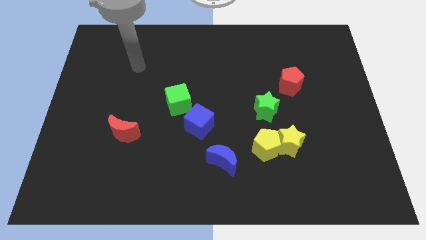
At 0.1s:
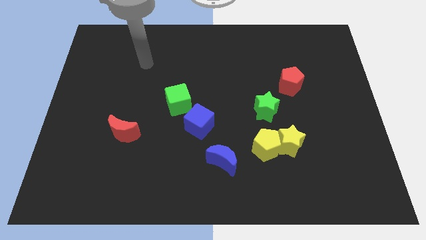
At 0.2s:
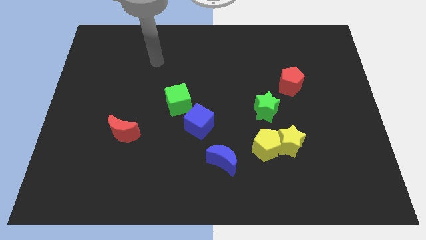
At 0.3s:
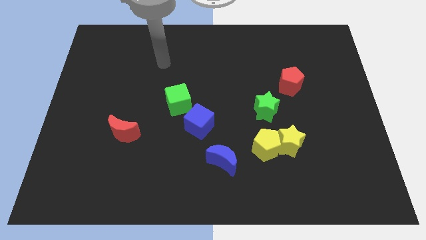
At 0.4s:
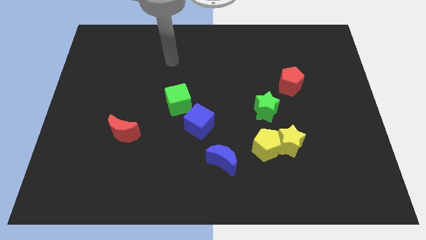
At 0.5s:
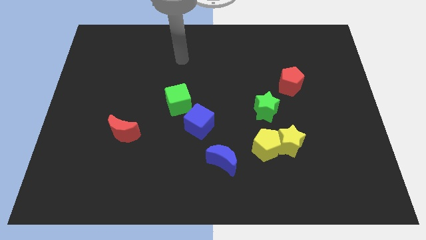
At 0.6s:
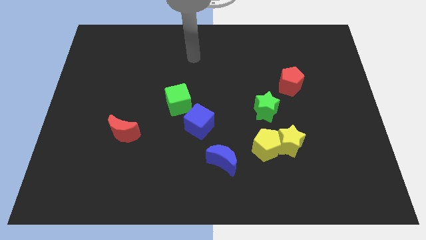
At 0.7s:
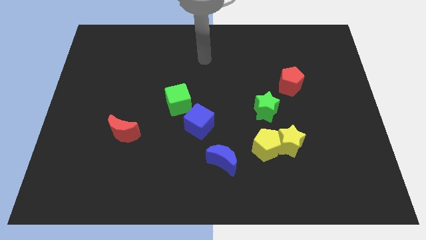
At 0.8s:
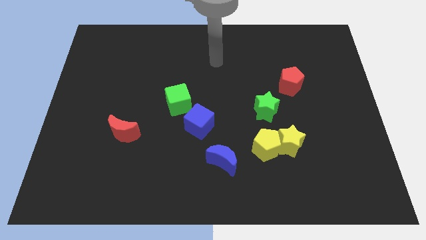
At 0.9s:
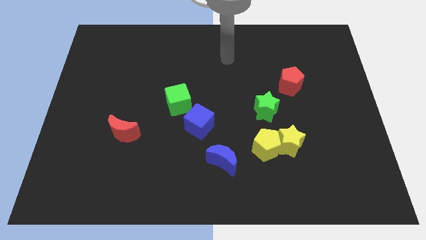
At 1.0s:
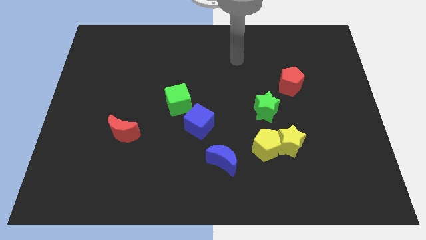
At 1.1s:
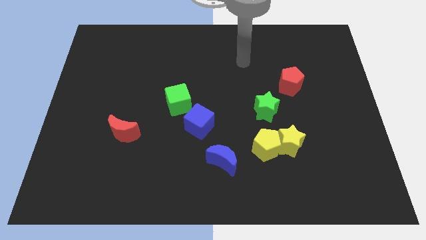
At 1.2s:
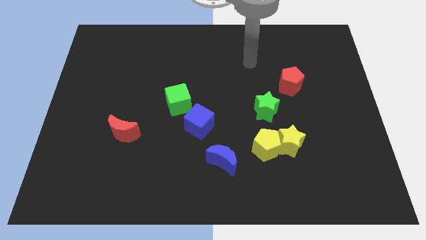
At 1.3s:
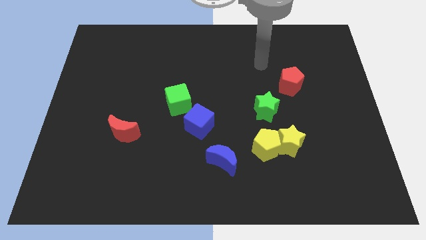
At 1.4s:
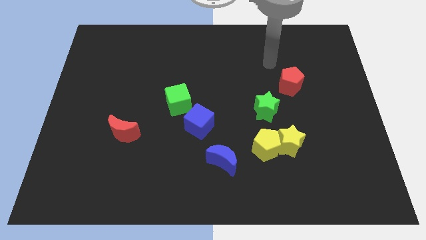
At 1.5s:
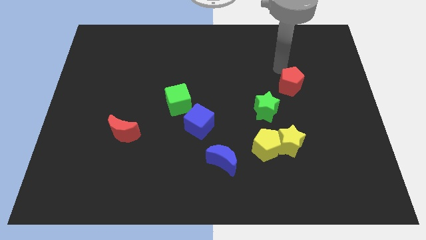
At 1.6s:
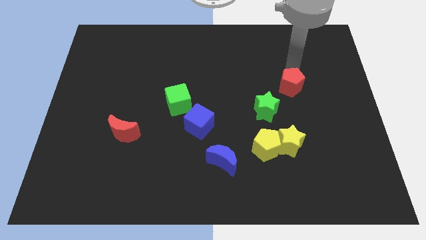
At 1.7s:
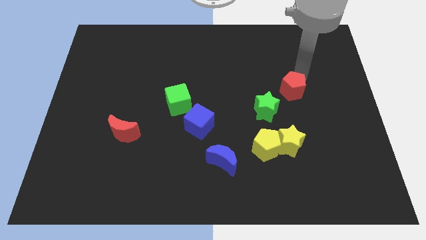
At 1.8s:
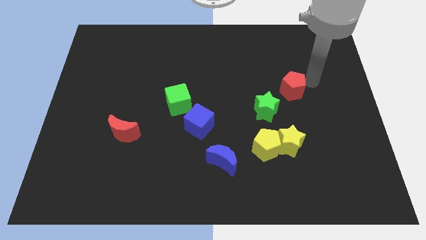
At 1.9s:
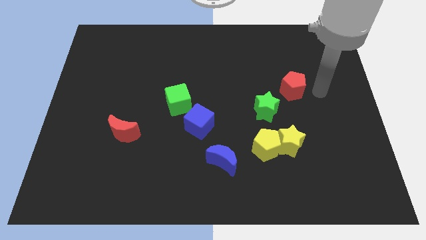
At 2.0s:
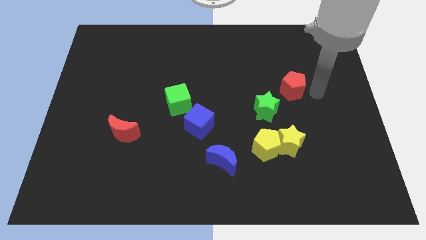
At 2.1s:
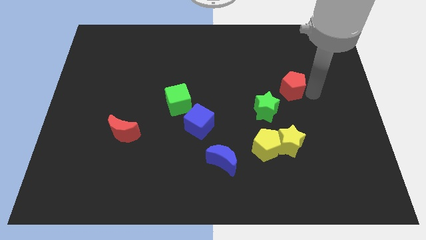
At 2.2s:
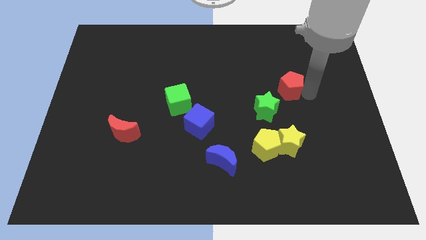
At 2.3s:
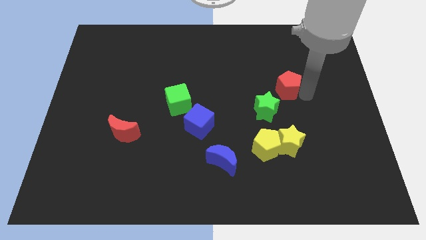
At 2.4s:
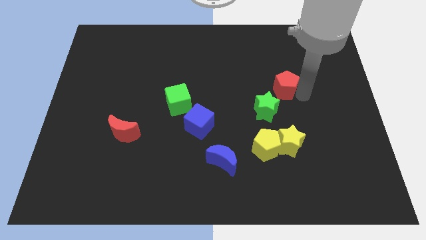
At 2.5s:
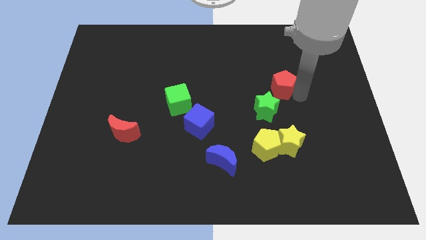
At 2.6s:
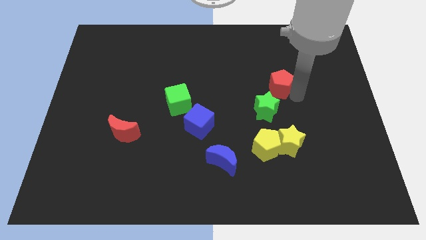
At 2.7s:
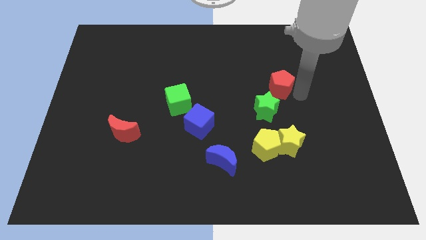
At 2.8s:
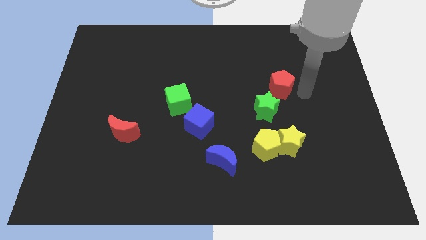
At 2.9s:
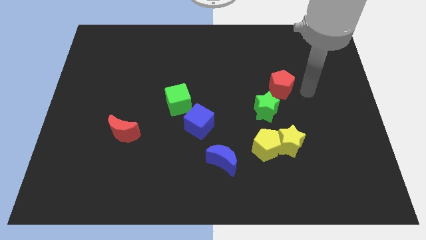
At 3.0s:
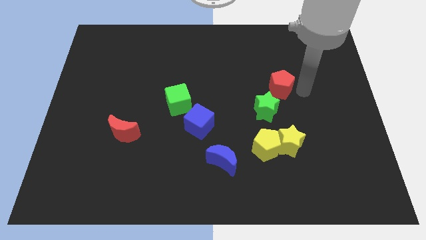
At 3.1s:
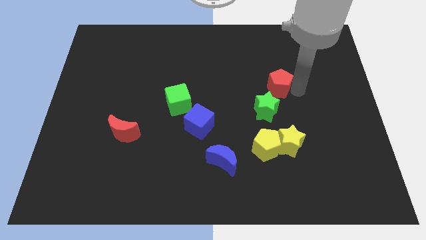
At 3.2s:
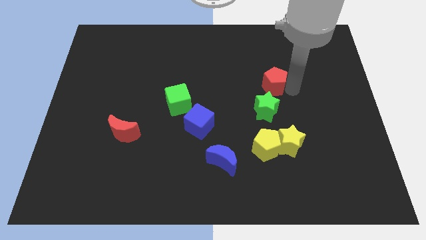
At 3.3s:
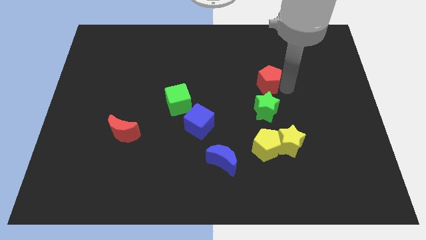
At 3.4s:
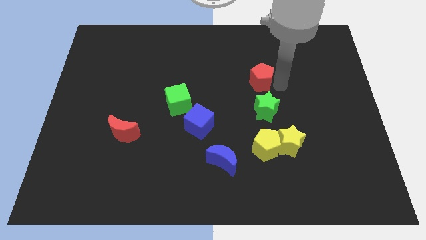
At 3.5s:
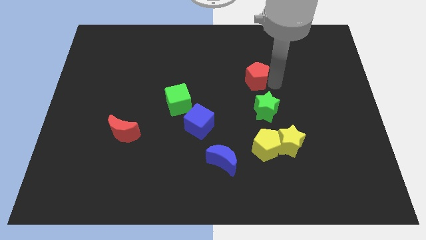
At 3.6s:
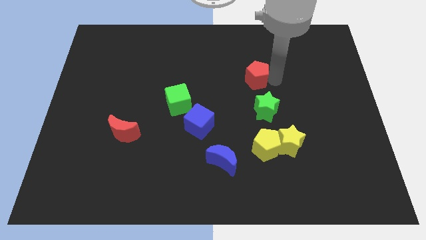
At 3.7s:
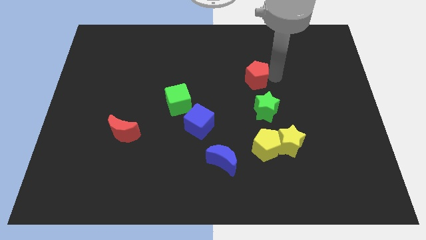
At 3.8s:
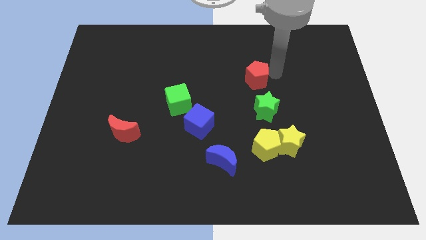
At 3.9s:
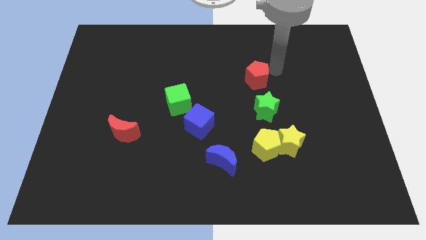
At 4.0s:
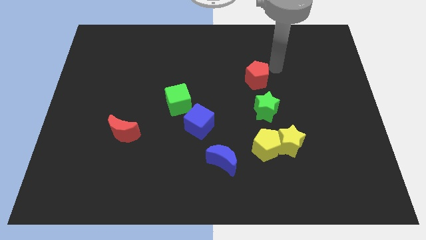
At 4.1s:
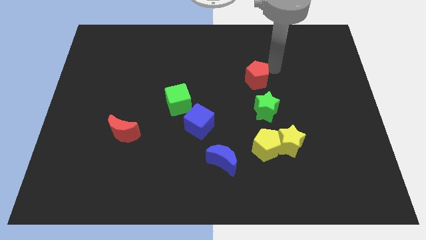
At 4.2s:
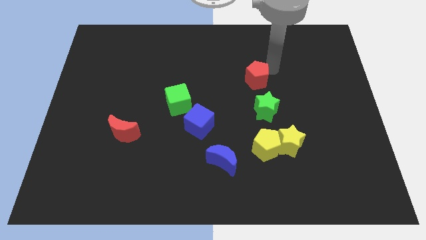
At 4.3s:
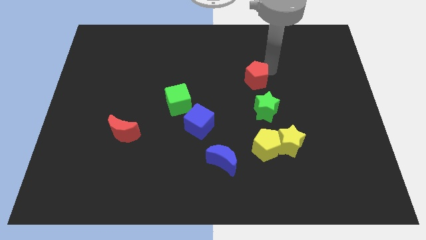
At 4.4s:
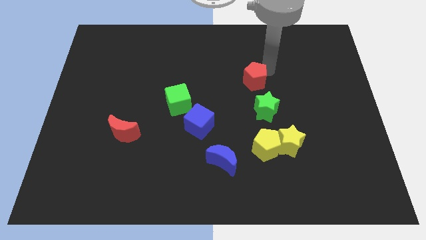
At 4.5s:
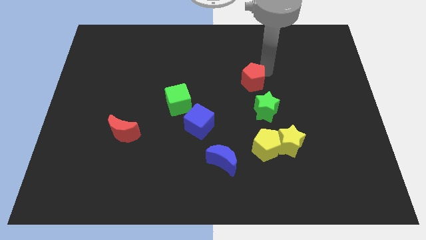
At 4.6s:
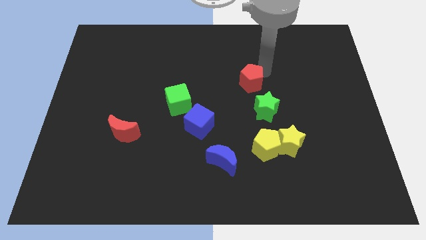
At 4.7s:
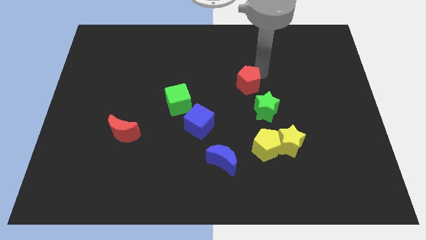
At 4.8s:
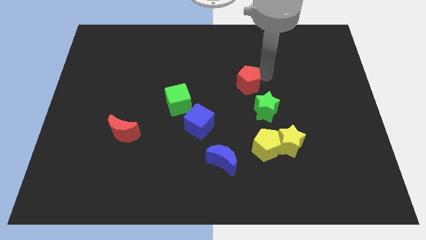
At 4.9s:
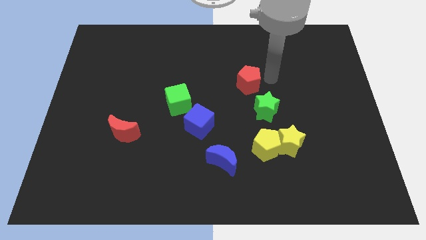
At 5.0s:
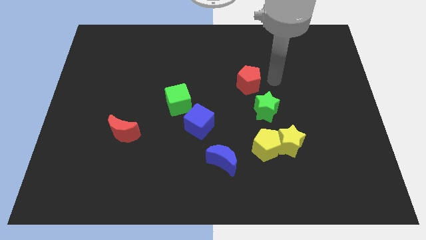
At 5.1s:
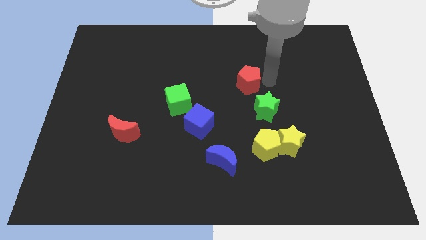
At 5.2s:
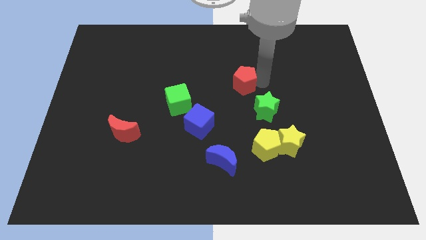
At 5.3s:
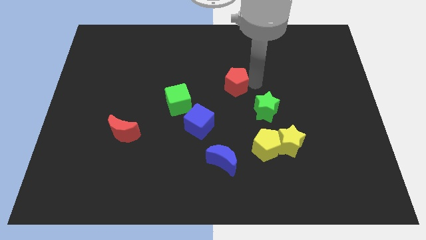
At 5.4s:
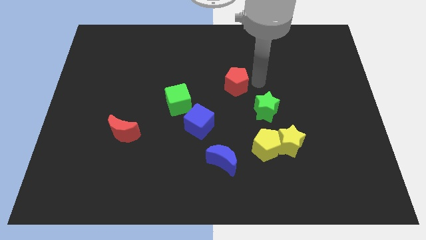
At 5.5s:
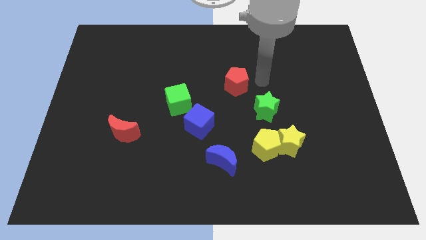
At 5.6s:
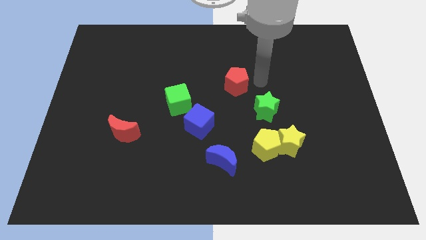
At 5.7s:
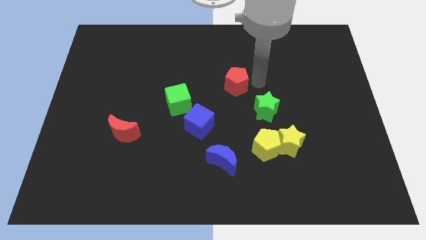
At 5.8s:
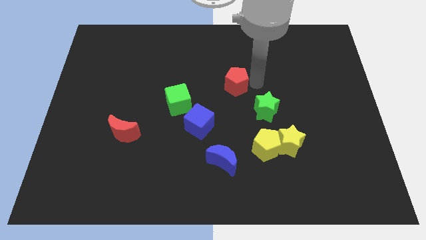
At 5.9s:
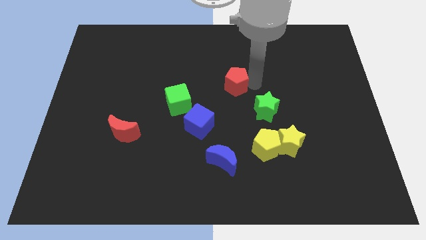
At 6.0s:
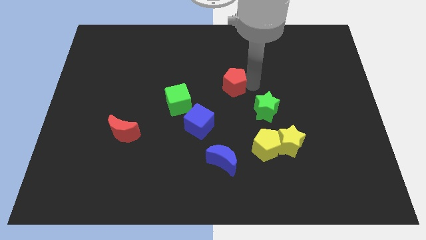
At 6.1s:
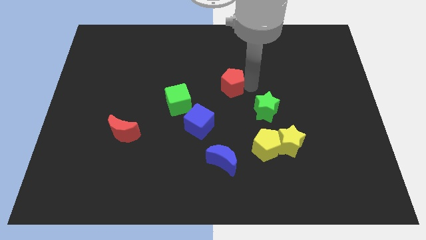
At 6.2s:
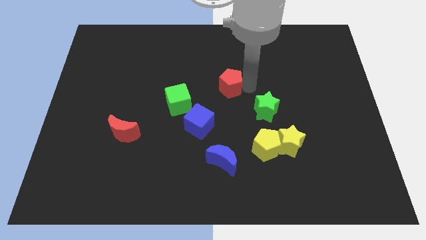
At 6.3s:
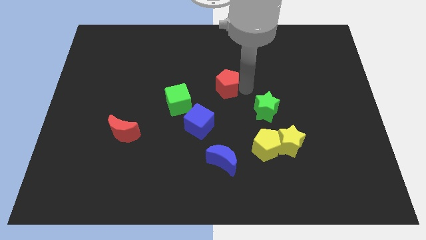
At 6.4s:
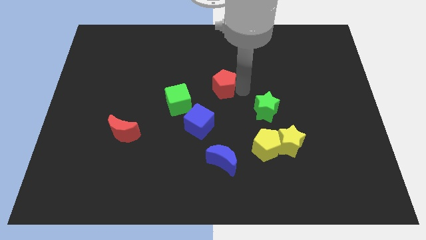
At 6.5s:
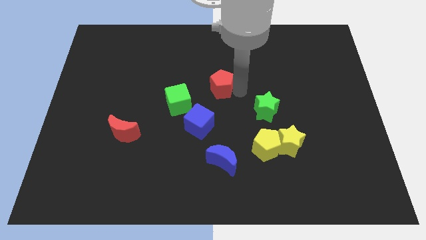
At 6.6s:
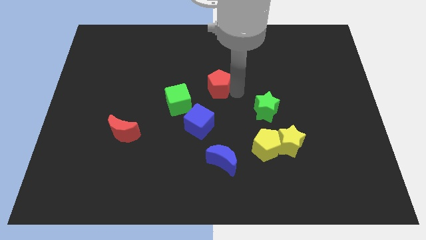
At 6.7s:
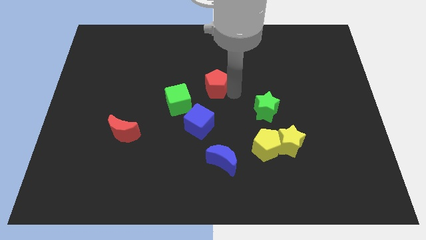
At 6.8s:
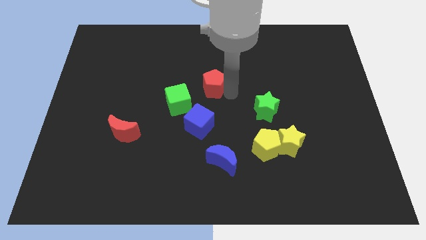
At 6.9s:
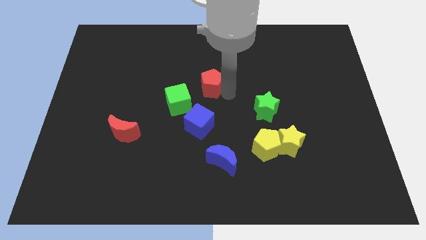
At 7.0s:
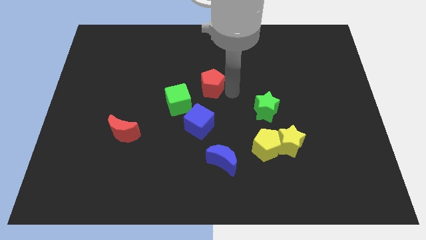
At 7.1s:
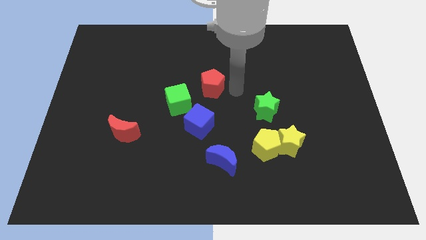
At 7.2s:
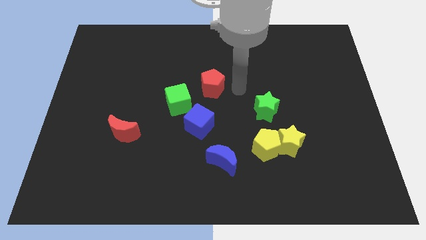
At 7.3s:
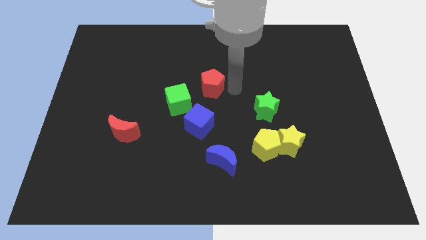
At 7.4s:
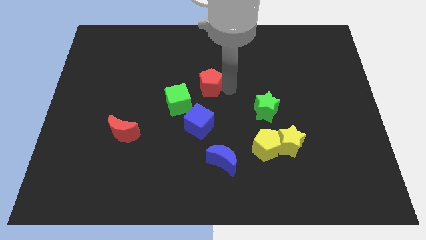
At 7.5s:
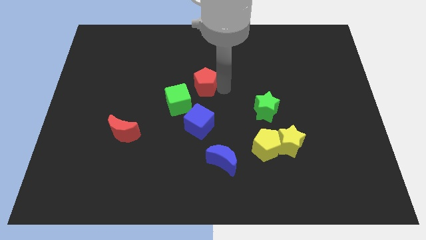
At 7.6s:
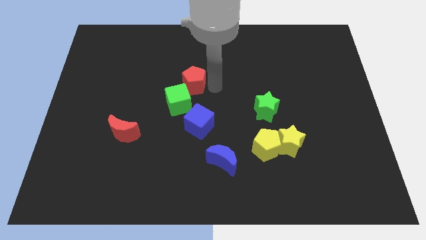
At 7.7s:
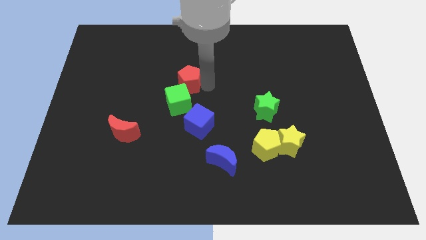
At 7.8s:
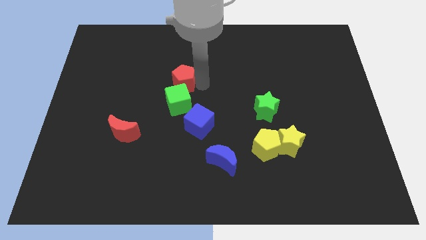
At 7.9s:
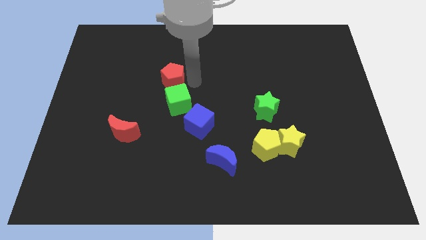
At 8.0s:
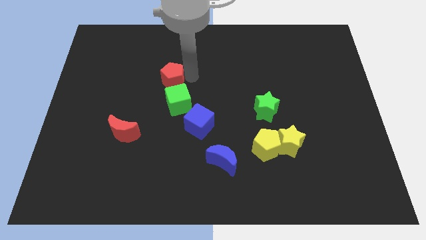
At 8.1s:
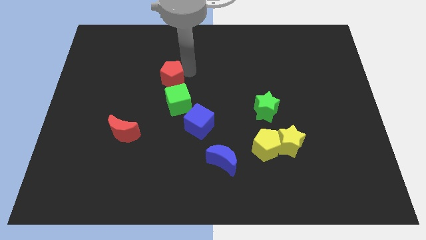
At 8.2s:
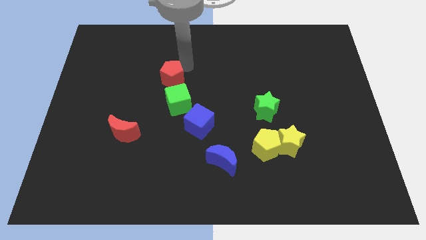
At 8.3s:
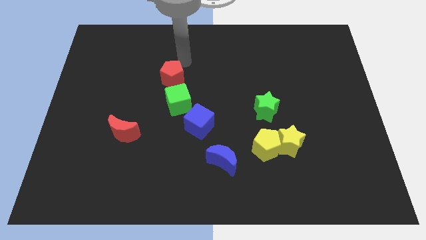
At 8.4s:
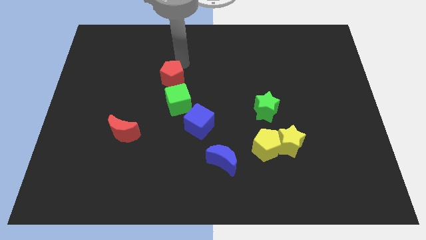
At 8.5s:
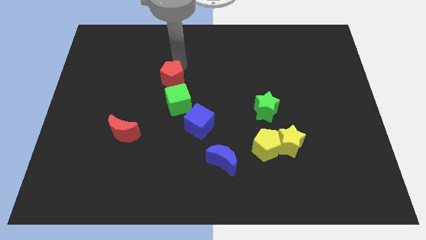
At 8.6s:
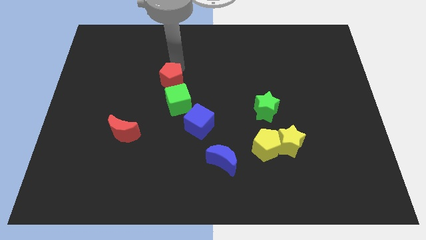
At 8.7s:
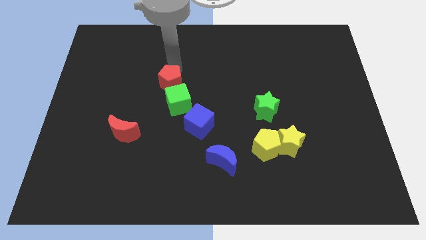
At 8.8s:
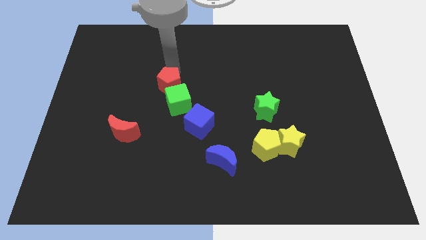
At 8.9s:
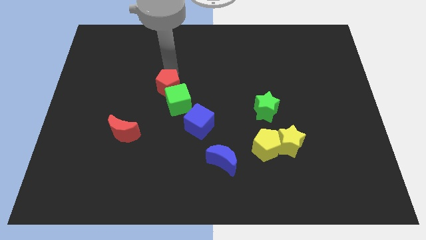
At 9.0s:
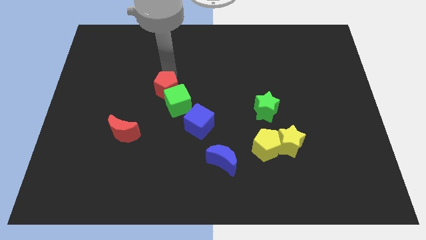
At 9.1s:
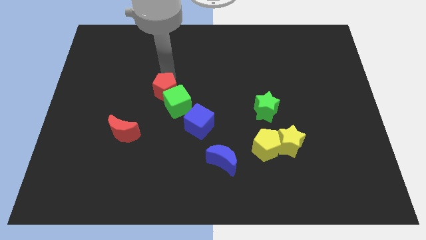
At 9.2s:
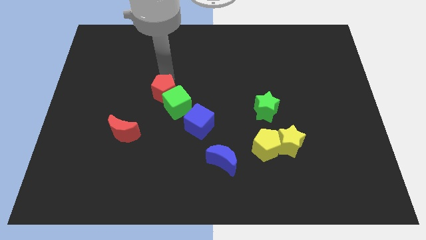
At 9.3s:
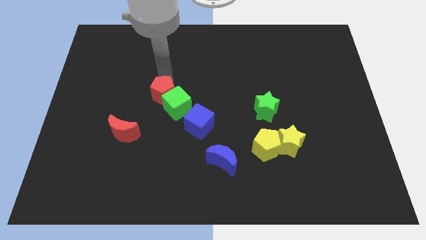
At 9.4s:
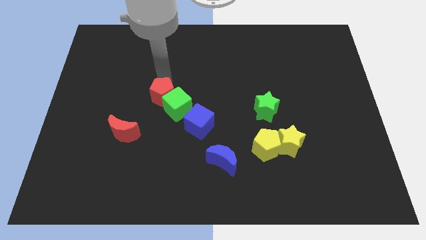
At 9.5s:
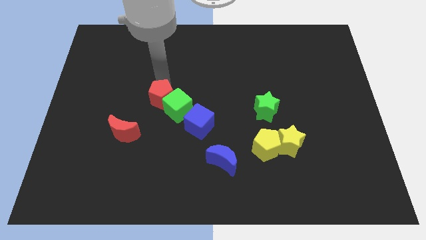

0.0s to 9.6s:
push the red pentagon to the top right of the red moon
